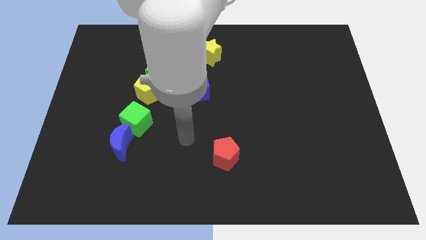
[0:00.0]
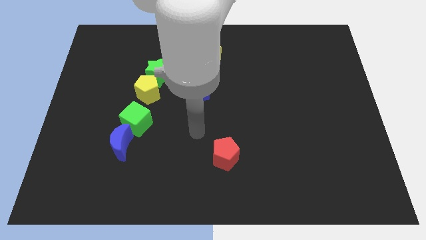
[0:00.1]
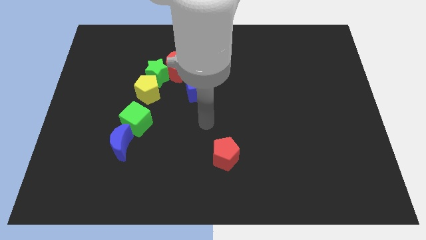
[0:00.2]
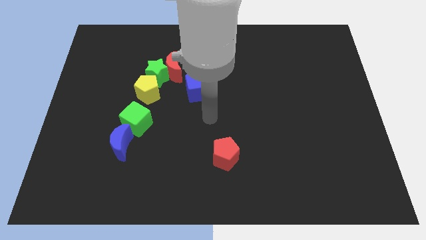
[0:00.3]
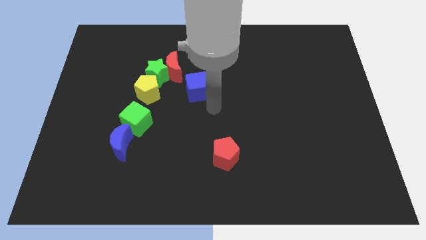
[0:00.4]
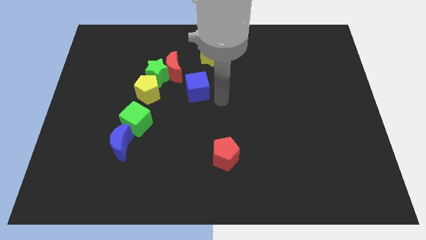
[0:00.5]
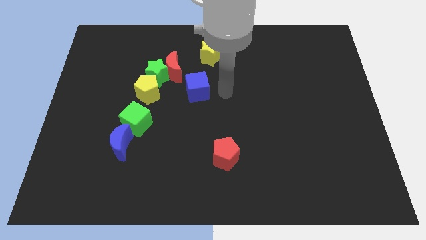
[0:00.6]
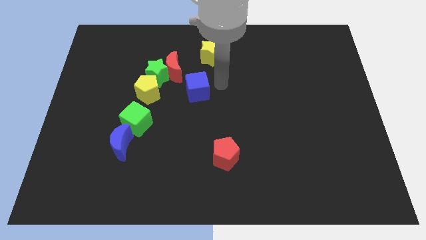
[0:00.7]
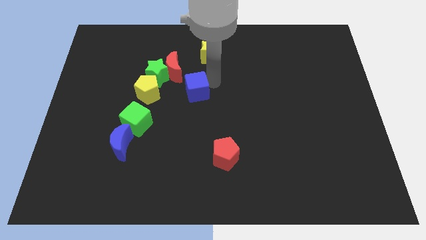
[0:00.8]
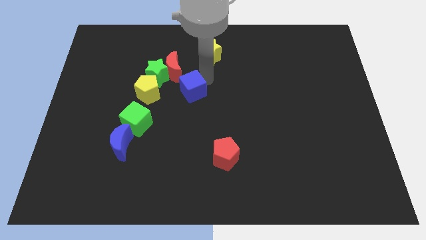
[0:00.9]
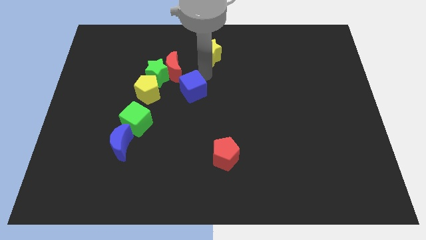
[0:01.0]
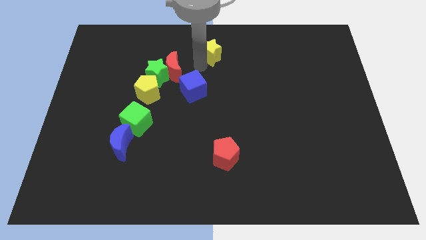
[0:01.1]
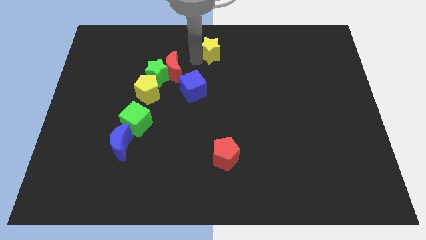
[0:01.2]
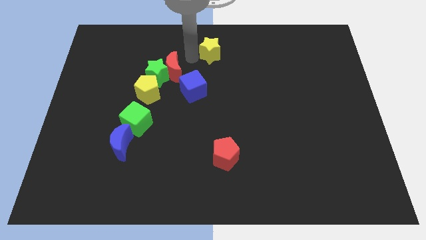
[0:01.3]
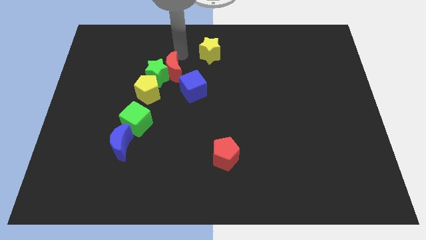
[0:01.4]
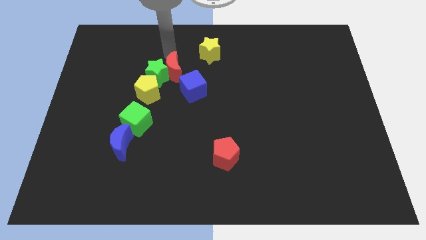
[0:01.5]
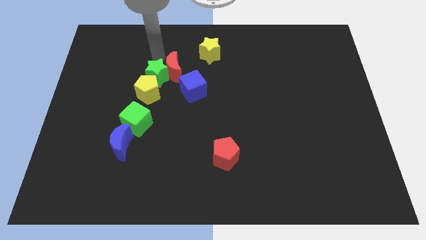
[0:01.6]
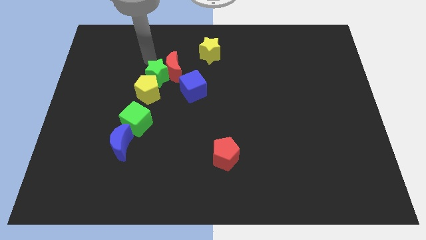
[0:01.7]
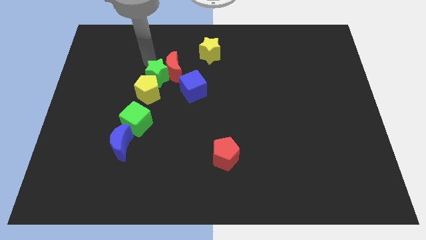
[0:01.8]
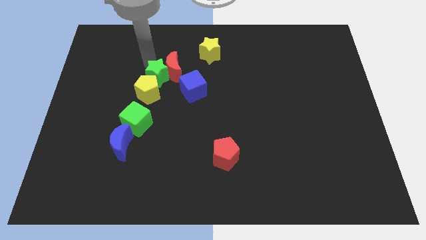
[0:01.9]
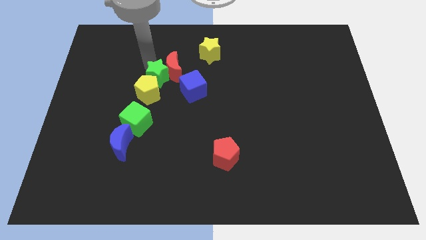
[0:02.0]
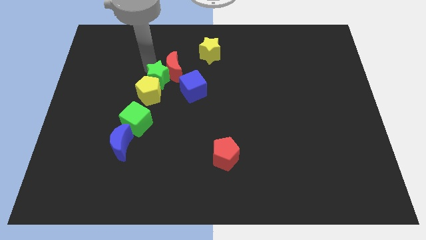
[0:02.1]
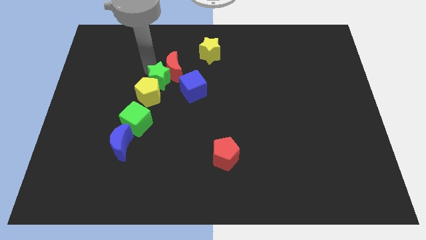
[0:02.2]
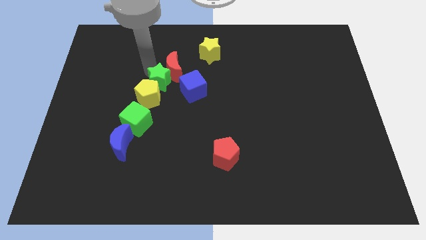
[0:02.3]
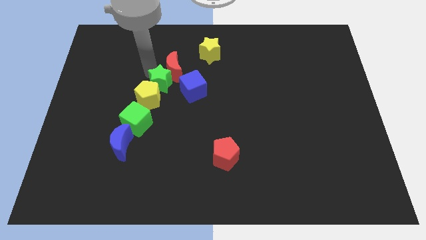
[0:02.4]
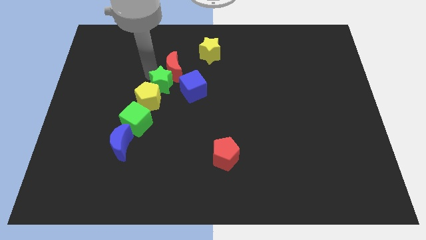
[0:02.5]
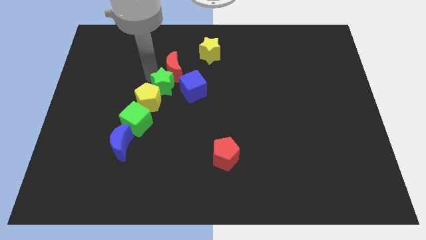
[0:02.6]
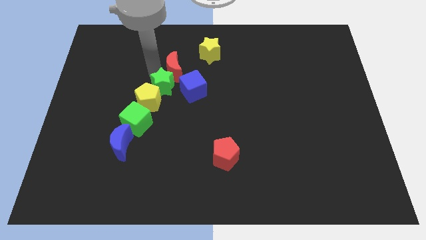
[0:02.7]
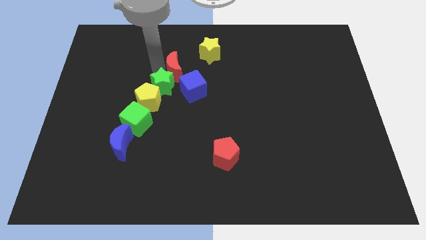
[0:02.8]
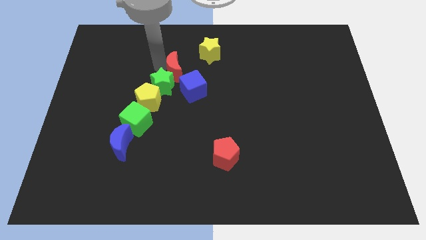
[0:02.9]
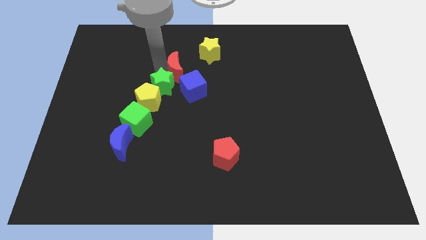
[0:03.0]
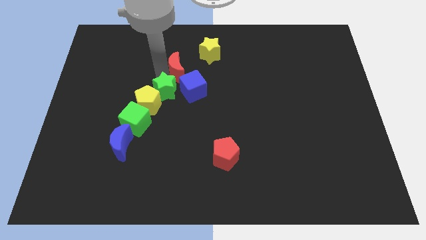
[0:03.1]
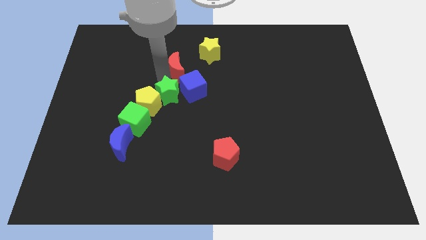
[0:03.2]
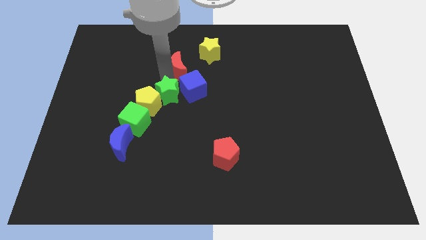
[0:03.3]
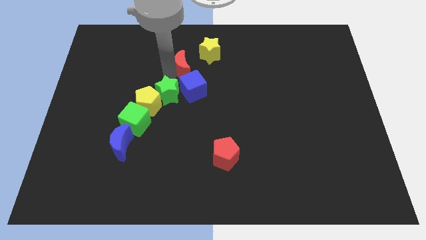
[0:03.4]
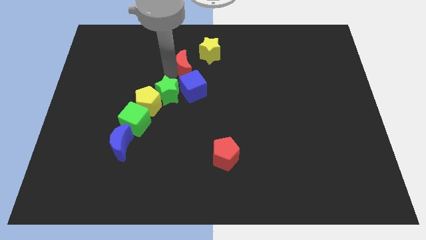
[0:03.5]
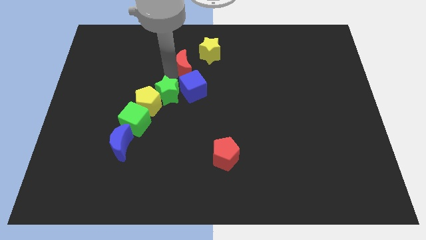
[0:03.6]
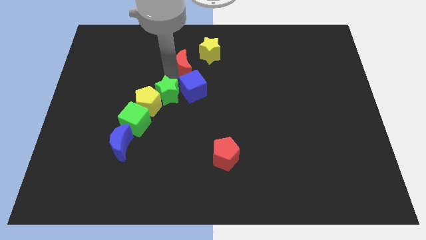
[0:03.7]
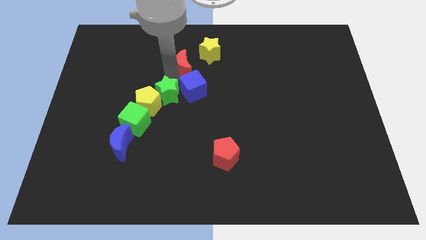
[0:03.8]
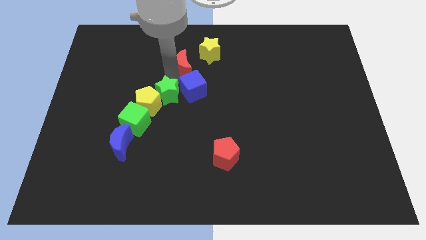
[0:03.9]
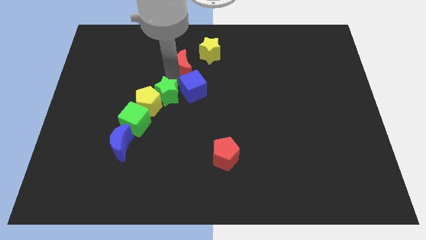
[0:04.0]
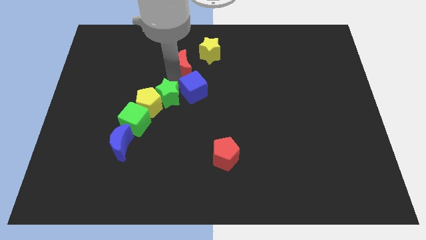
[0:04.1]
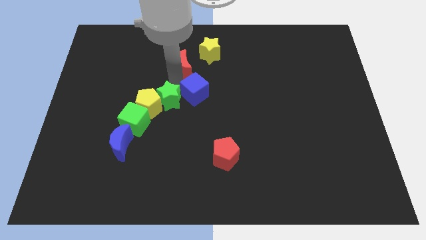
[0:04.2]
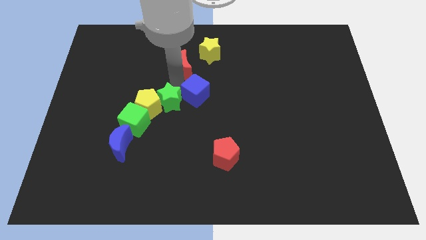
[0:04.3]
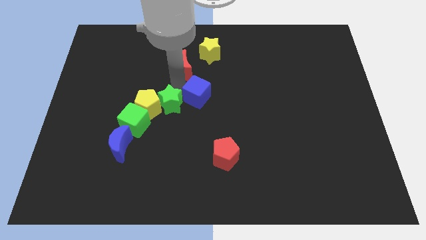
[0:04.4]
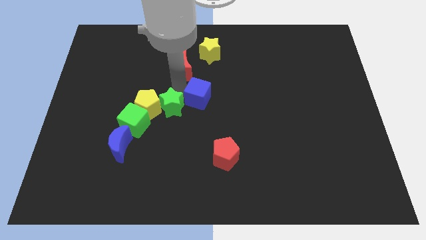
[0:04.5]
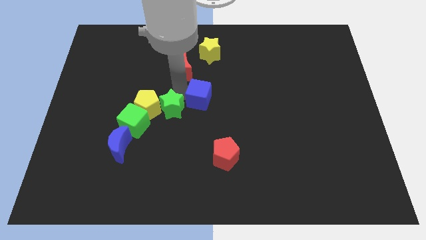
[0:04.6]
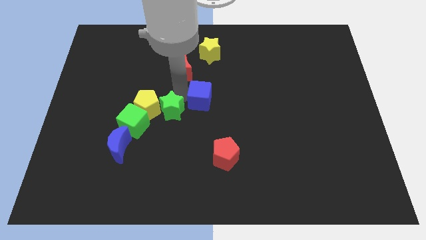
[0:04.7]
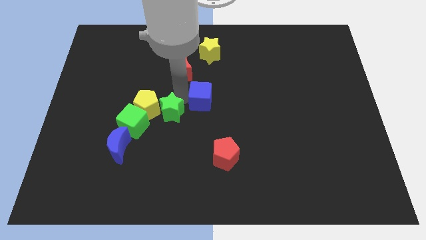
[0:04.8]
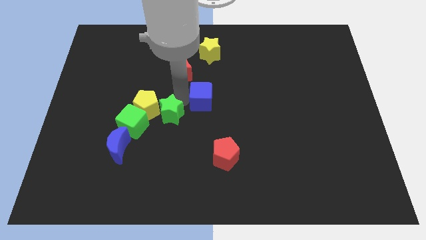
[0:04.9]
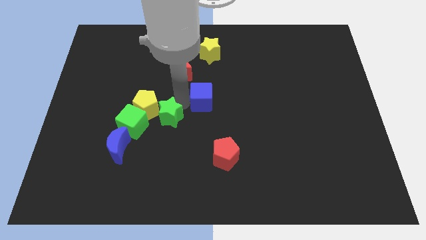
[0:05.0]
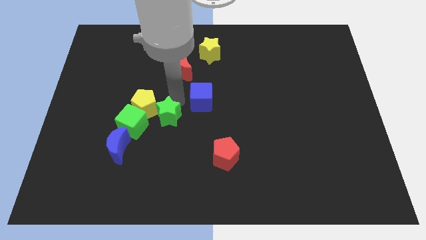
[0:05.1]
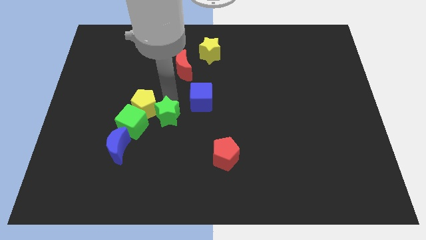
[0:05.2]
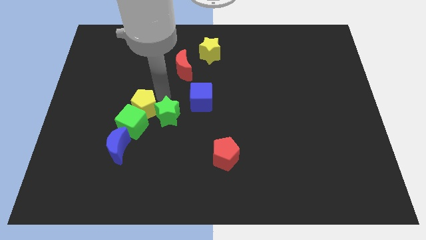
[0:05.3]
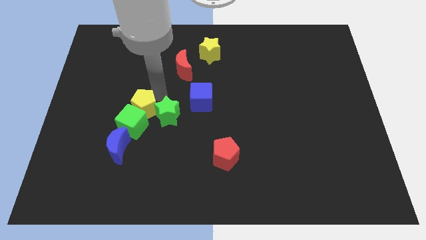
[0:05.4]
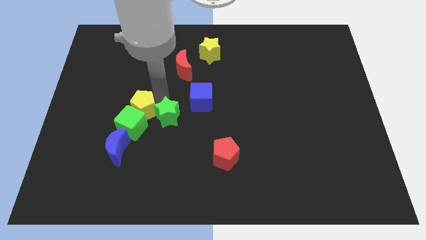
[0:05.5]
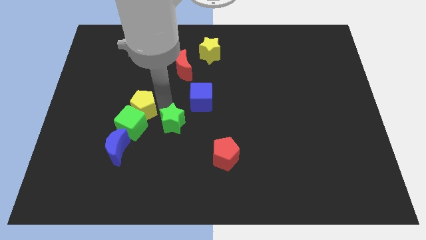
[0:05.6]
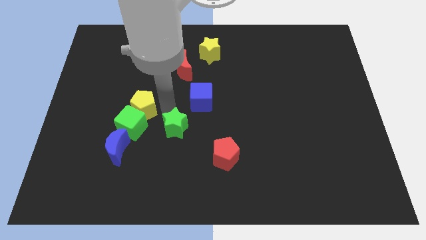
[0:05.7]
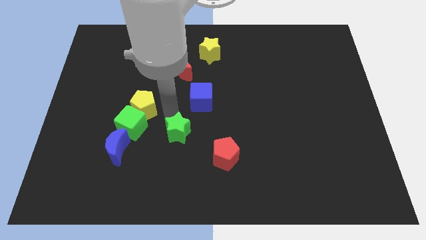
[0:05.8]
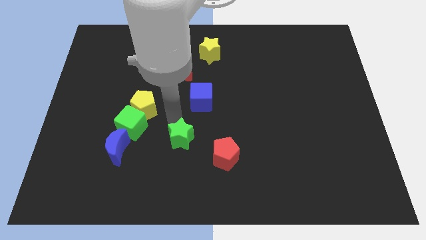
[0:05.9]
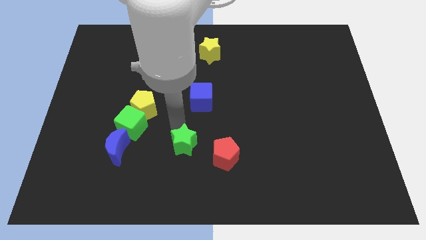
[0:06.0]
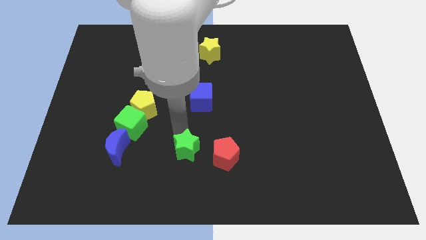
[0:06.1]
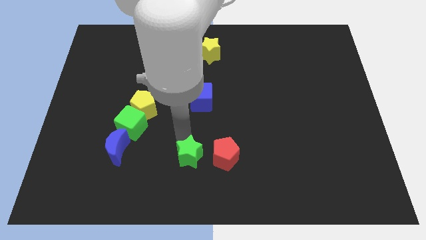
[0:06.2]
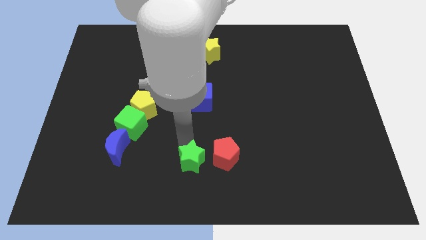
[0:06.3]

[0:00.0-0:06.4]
put the green star to the bottom

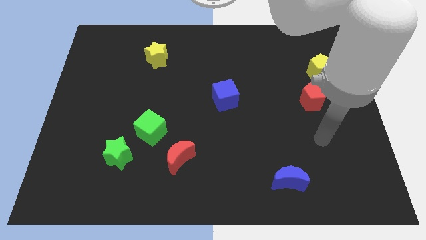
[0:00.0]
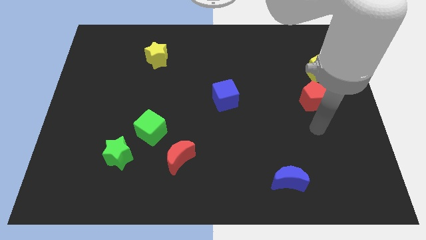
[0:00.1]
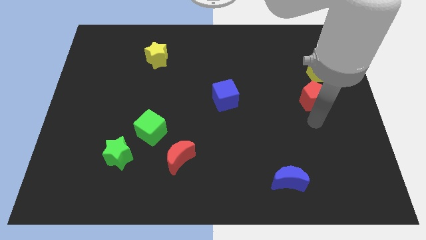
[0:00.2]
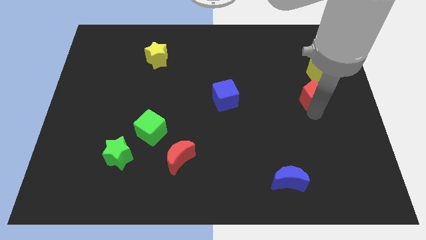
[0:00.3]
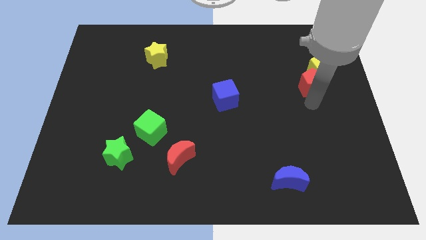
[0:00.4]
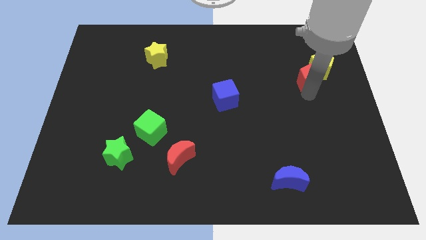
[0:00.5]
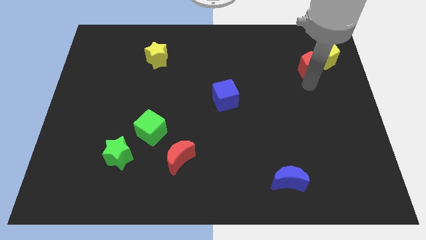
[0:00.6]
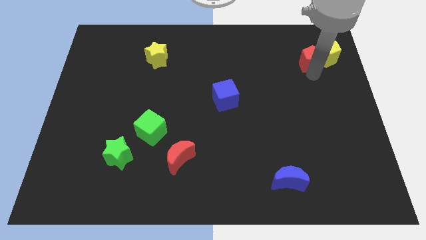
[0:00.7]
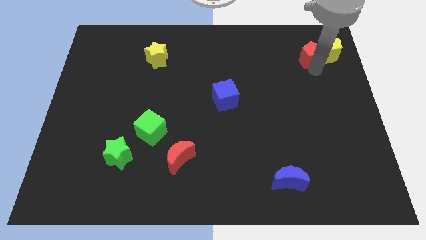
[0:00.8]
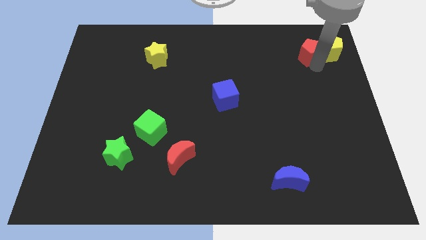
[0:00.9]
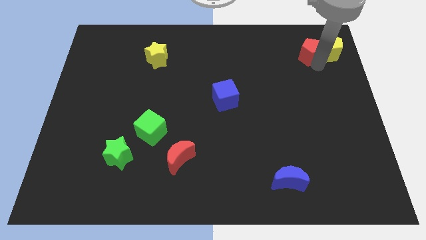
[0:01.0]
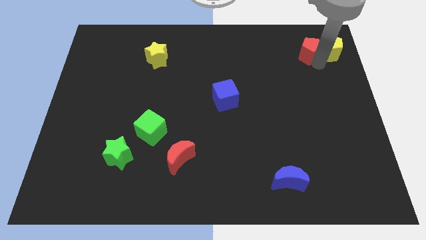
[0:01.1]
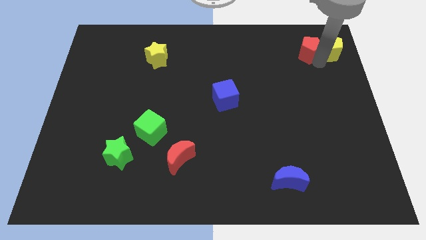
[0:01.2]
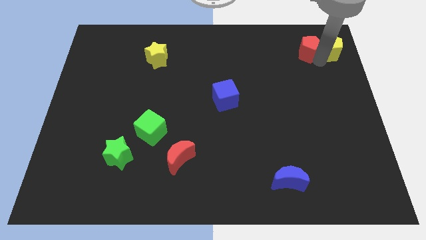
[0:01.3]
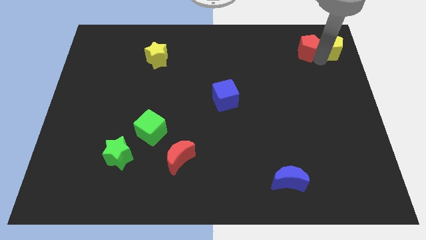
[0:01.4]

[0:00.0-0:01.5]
slide the yellow pentagon to the top right corner
